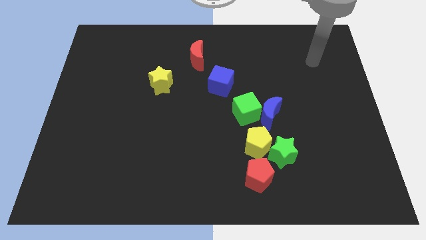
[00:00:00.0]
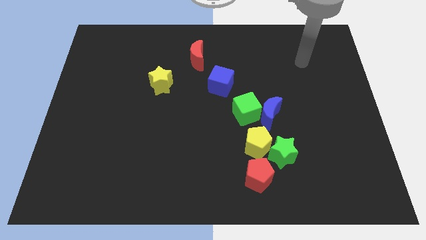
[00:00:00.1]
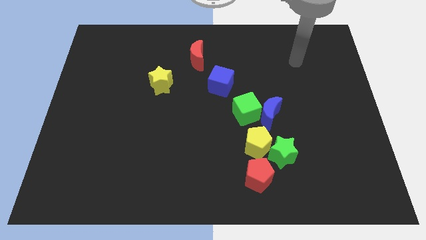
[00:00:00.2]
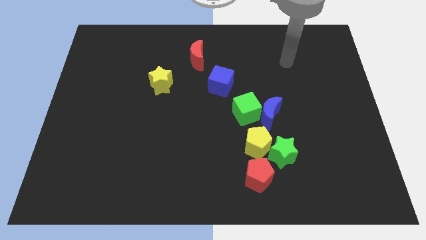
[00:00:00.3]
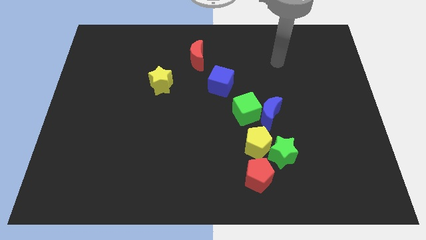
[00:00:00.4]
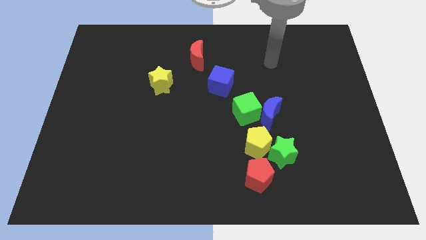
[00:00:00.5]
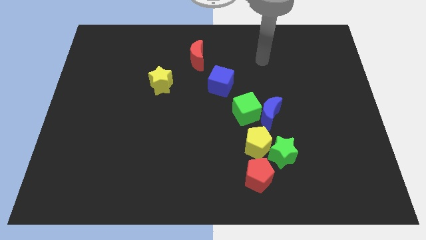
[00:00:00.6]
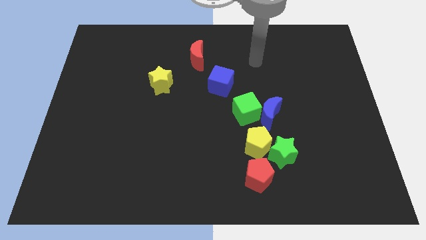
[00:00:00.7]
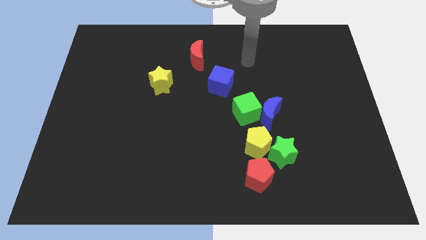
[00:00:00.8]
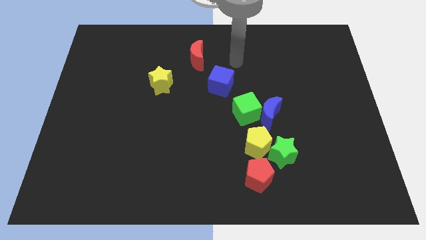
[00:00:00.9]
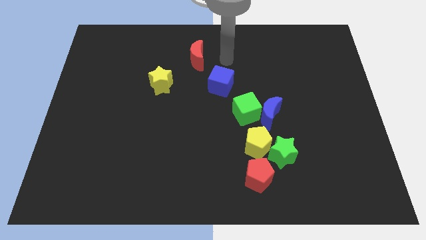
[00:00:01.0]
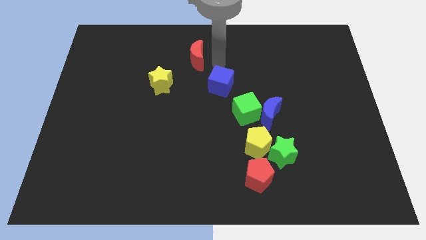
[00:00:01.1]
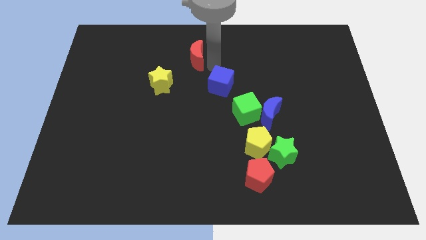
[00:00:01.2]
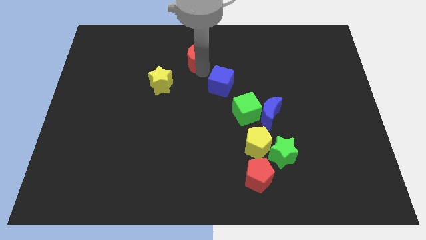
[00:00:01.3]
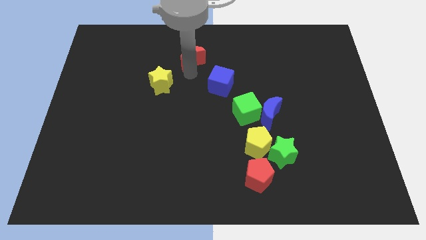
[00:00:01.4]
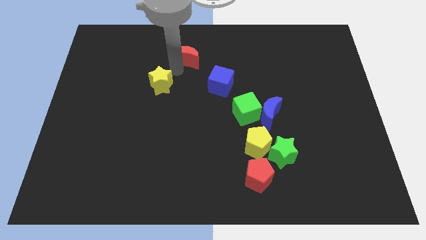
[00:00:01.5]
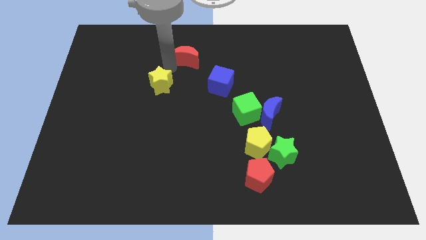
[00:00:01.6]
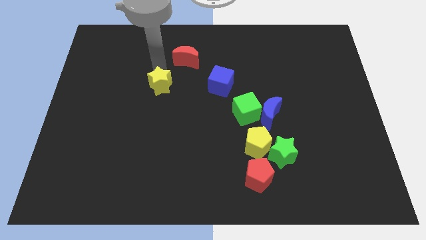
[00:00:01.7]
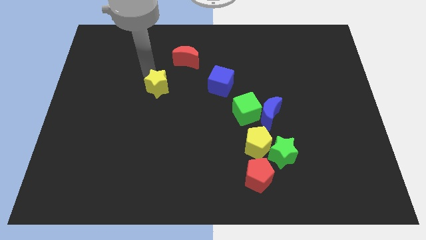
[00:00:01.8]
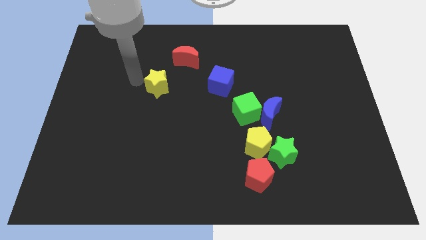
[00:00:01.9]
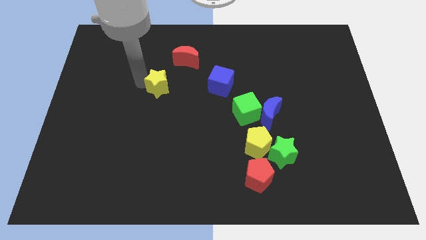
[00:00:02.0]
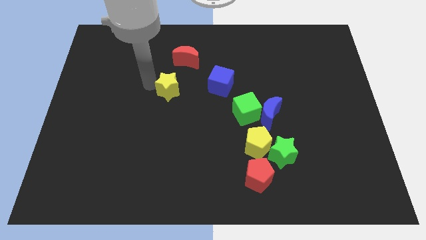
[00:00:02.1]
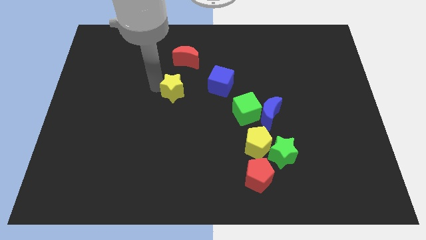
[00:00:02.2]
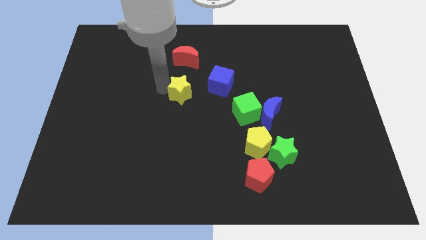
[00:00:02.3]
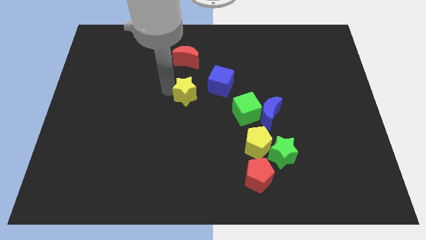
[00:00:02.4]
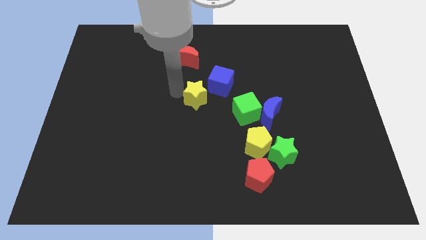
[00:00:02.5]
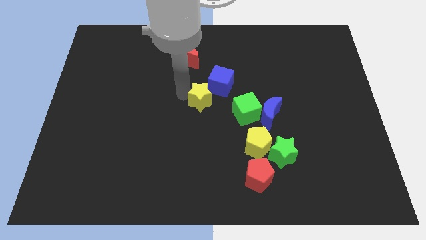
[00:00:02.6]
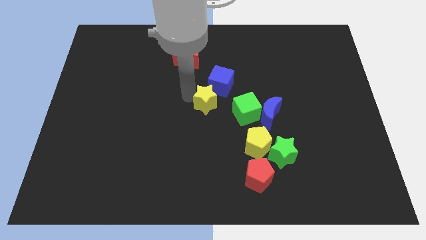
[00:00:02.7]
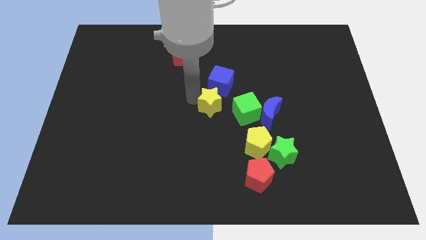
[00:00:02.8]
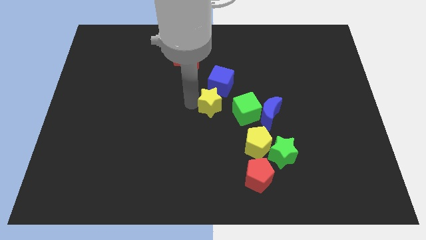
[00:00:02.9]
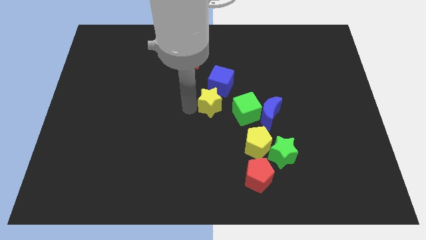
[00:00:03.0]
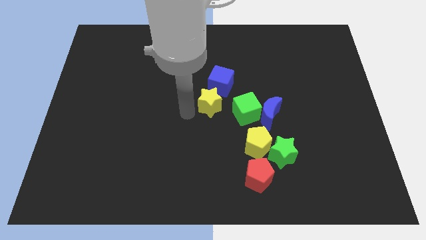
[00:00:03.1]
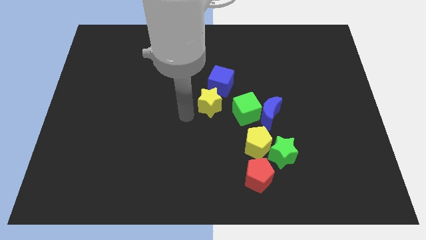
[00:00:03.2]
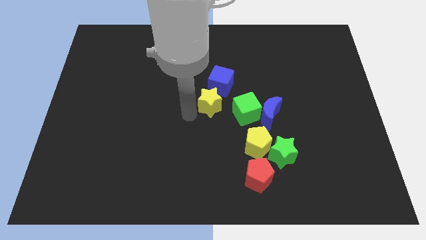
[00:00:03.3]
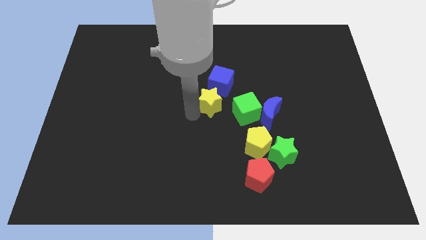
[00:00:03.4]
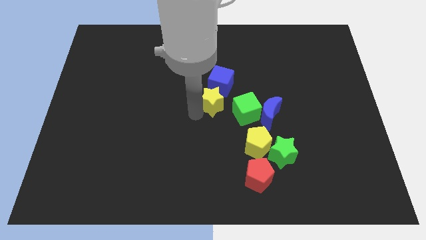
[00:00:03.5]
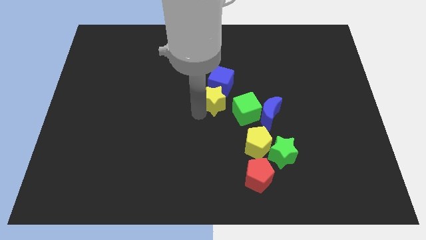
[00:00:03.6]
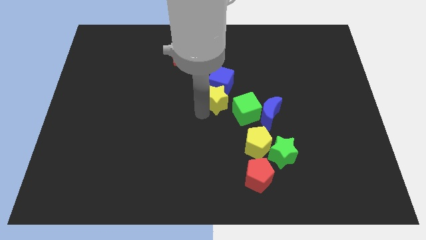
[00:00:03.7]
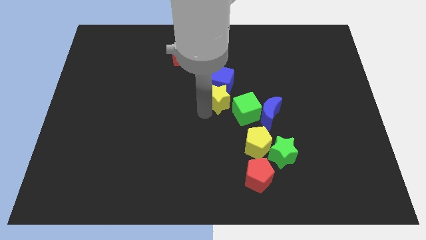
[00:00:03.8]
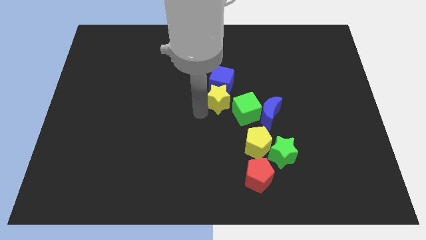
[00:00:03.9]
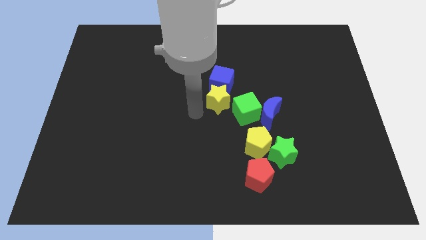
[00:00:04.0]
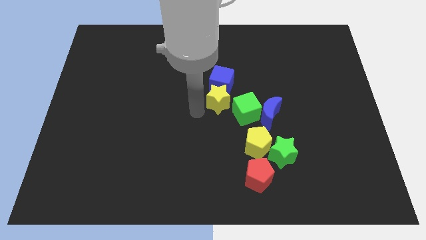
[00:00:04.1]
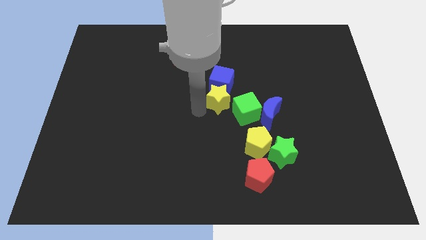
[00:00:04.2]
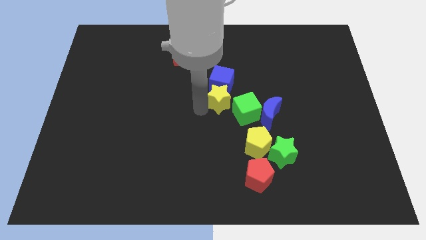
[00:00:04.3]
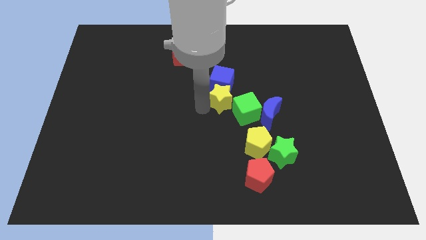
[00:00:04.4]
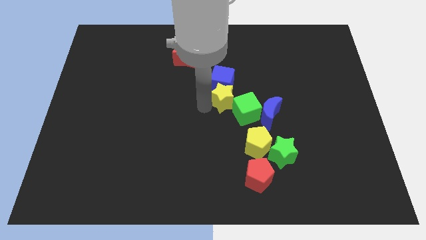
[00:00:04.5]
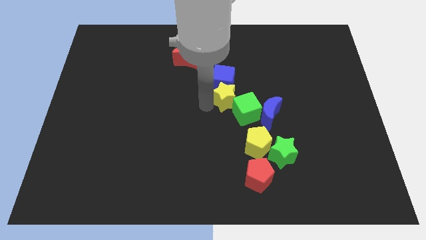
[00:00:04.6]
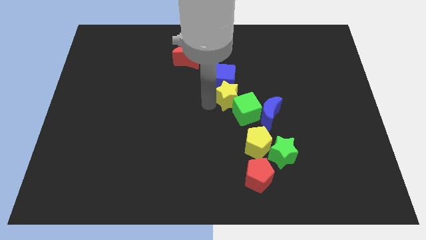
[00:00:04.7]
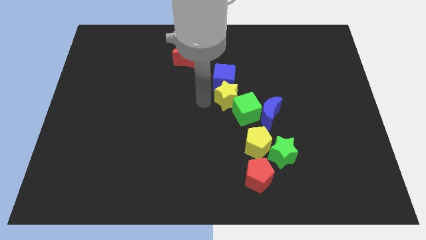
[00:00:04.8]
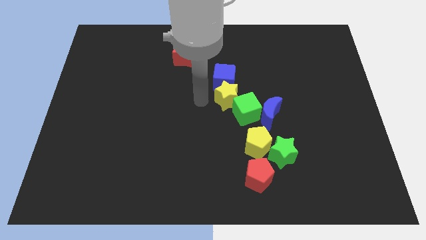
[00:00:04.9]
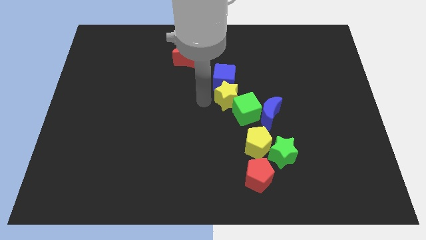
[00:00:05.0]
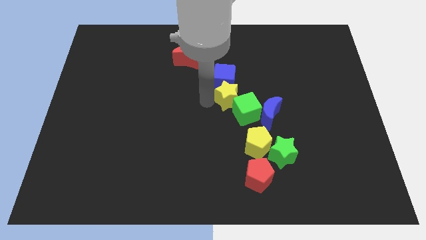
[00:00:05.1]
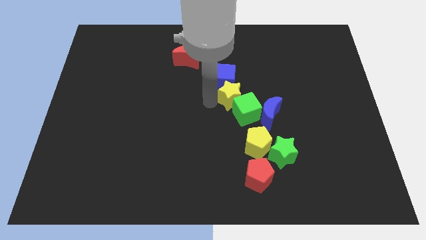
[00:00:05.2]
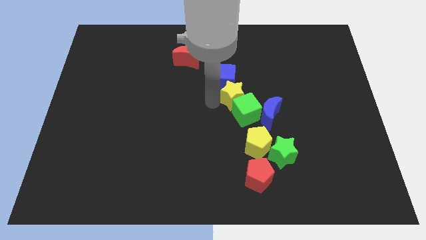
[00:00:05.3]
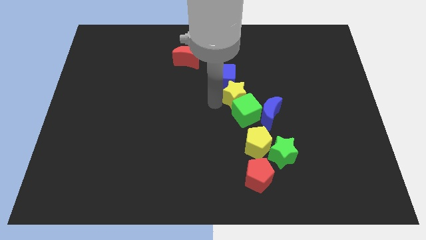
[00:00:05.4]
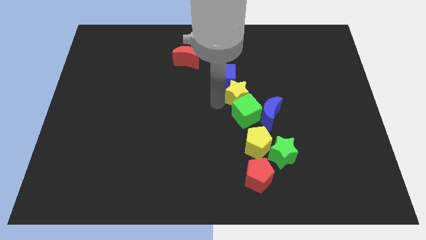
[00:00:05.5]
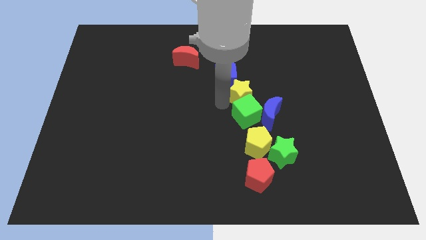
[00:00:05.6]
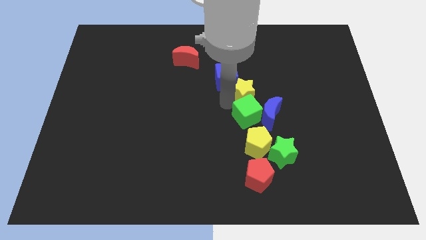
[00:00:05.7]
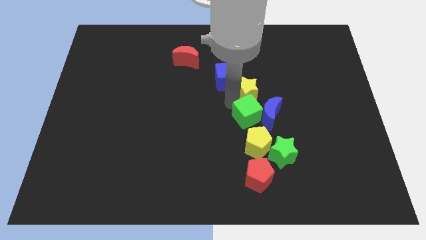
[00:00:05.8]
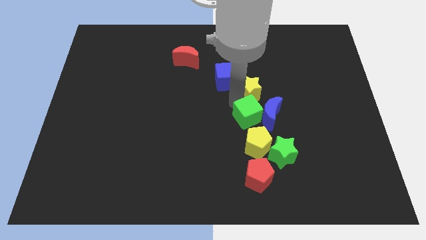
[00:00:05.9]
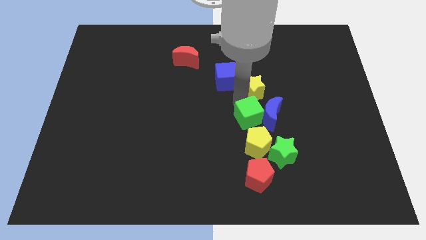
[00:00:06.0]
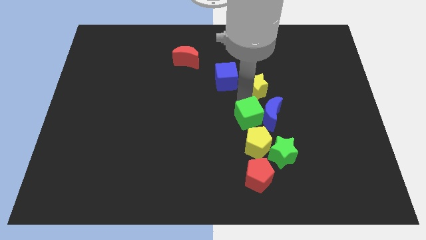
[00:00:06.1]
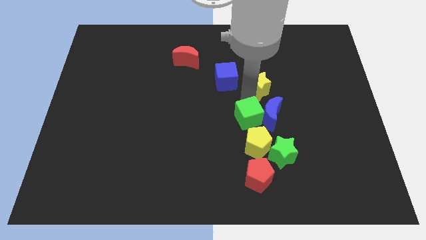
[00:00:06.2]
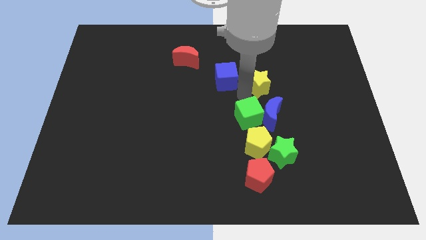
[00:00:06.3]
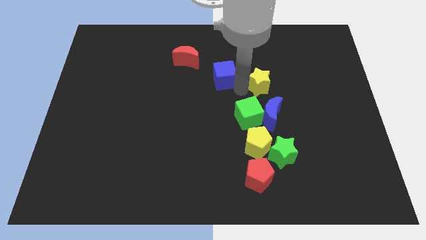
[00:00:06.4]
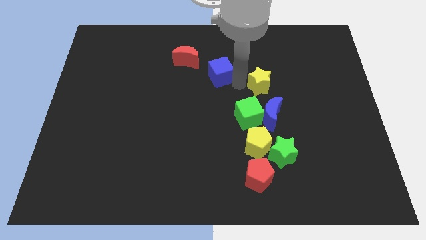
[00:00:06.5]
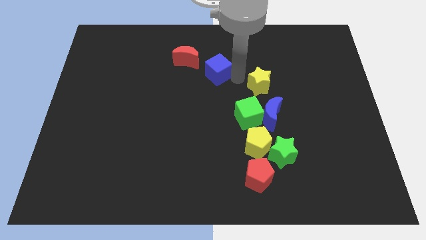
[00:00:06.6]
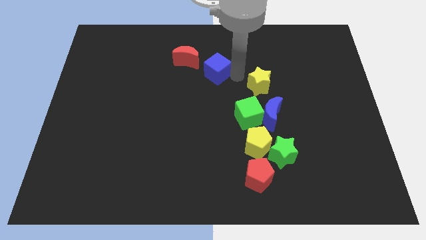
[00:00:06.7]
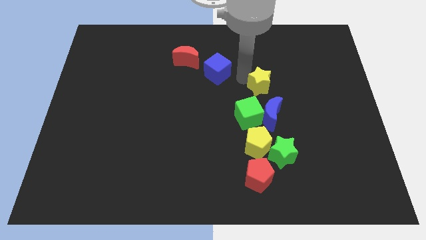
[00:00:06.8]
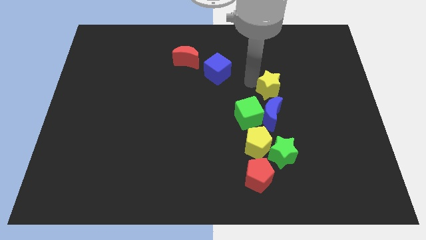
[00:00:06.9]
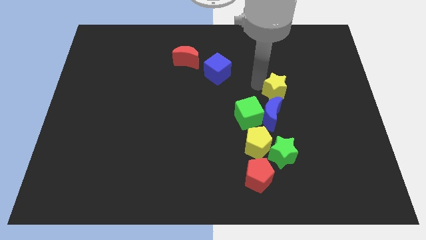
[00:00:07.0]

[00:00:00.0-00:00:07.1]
put the yellow star to the top right of the blue moon
